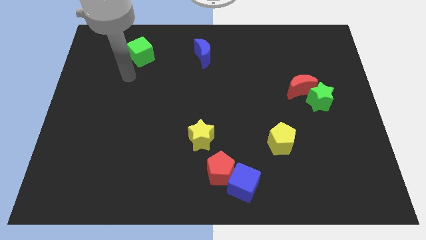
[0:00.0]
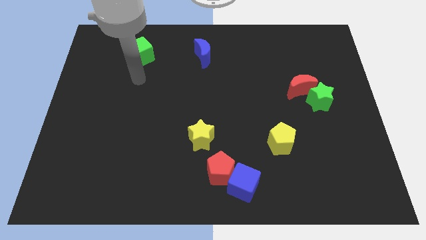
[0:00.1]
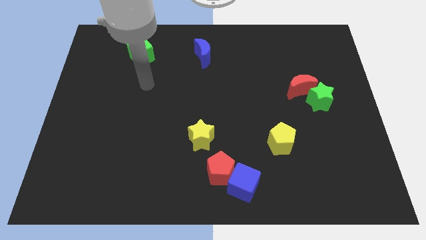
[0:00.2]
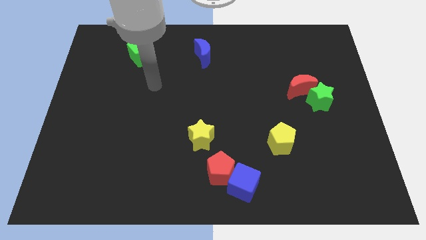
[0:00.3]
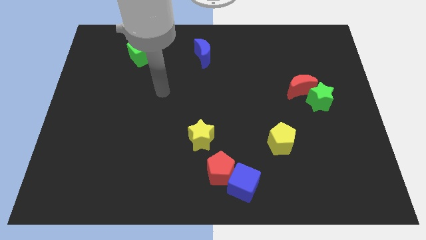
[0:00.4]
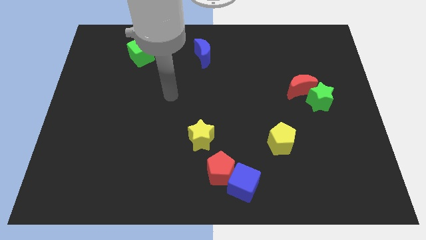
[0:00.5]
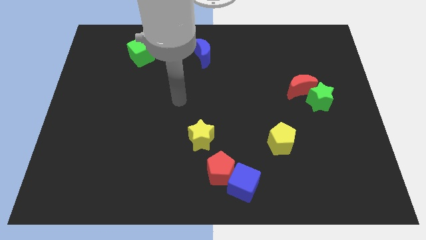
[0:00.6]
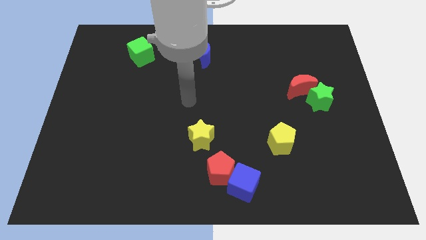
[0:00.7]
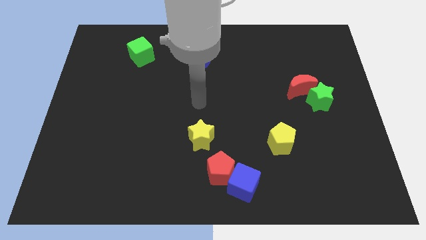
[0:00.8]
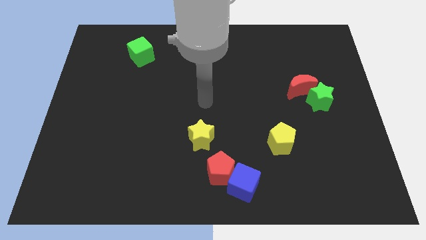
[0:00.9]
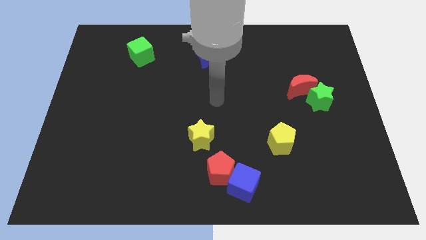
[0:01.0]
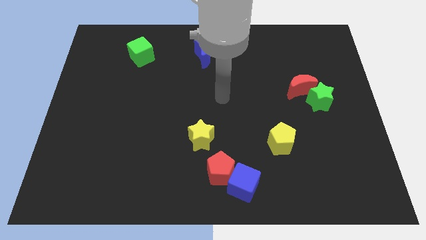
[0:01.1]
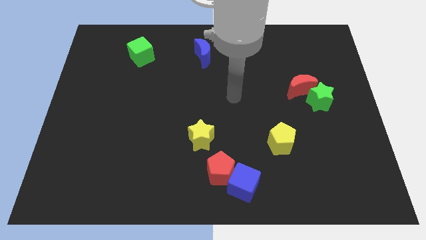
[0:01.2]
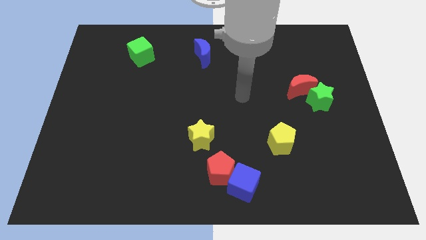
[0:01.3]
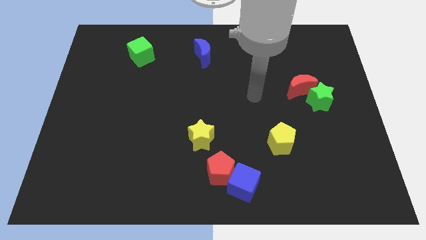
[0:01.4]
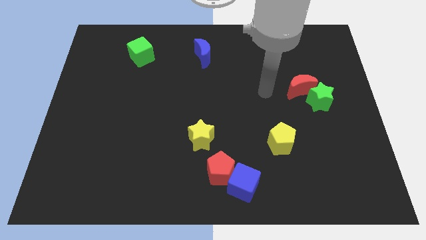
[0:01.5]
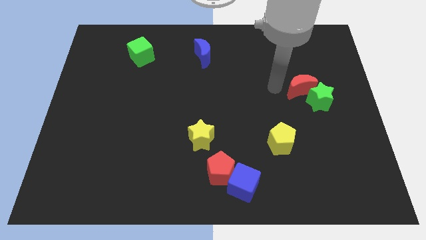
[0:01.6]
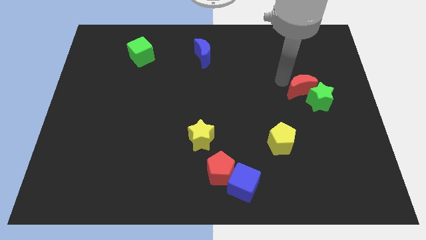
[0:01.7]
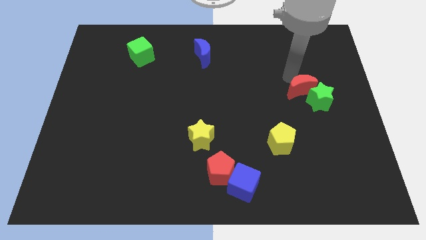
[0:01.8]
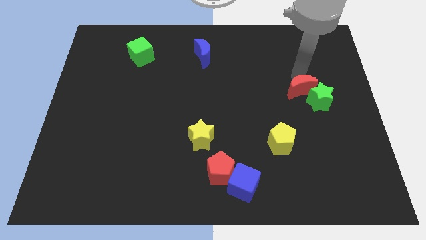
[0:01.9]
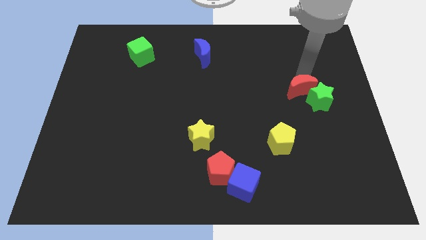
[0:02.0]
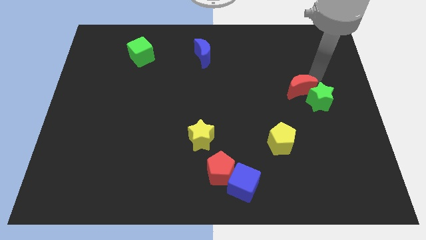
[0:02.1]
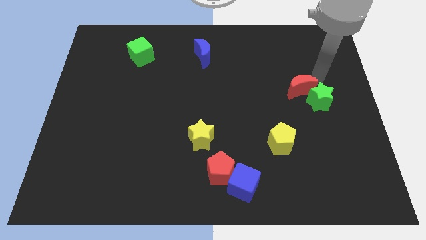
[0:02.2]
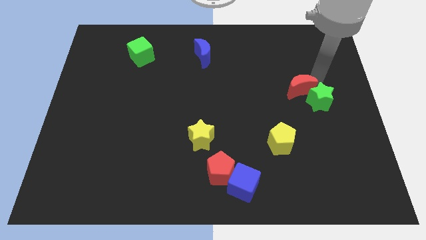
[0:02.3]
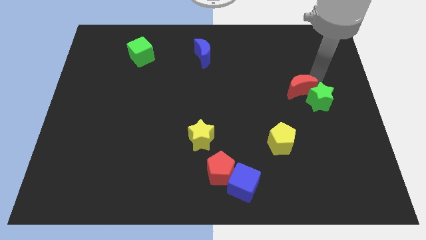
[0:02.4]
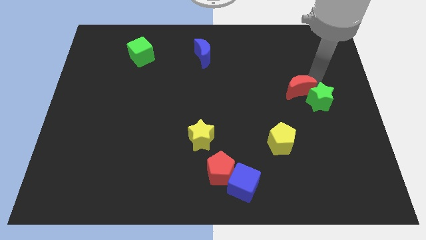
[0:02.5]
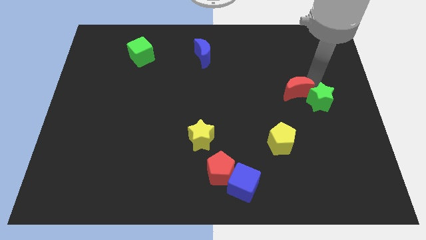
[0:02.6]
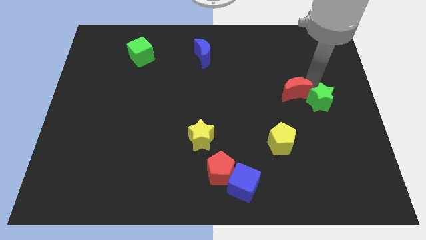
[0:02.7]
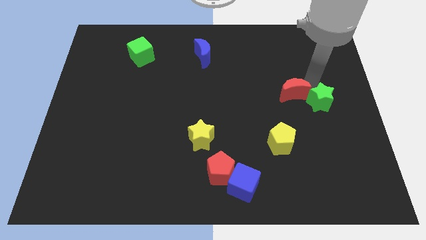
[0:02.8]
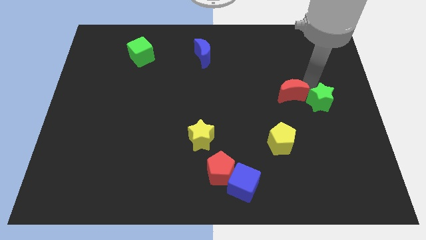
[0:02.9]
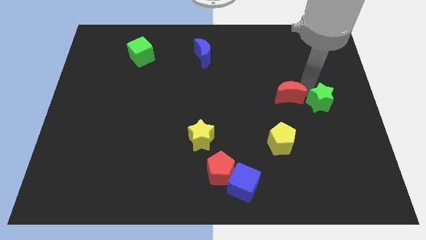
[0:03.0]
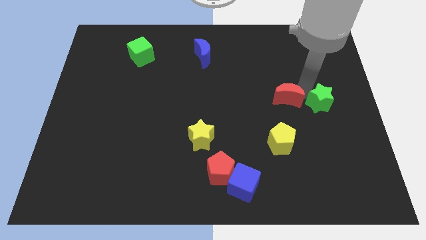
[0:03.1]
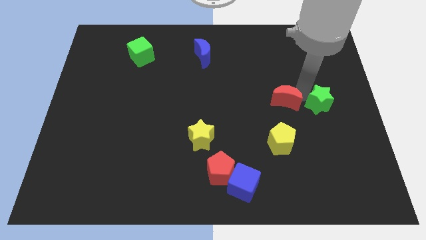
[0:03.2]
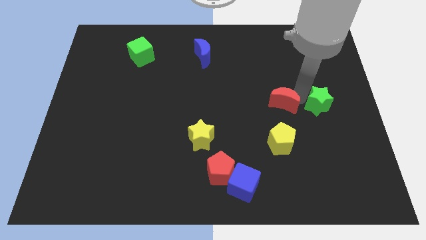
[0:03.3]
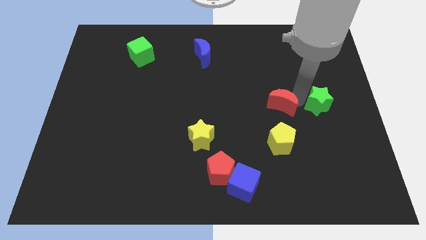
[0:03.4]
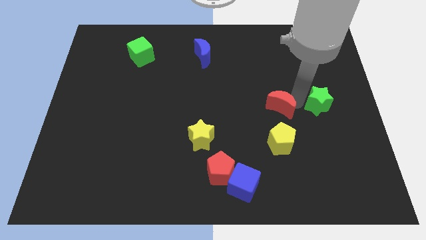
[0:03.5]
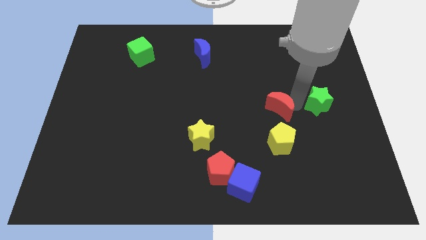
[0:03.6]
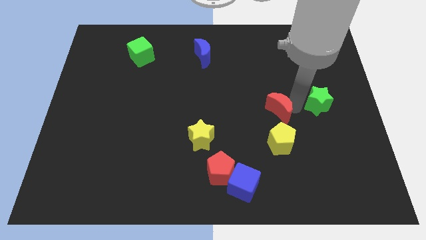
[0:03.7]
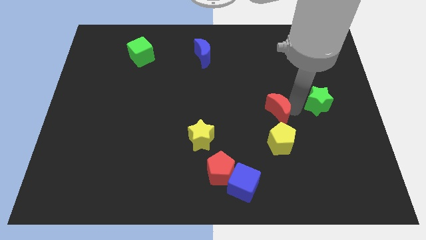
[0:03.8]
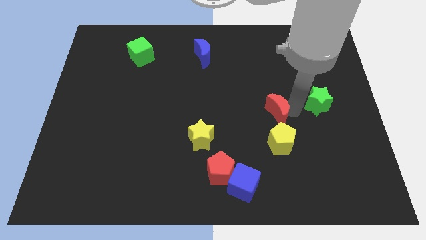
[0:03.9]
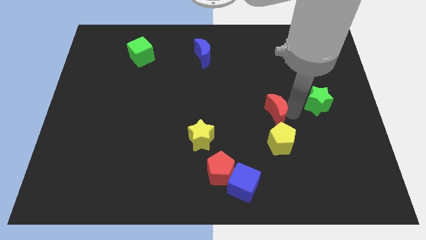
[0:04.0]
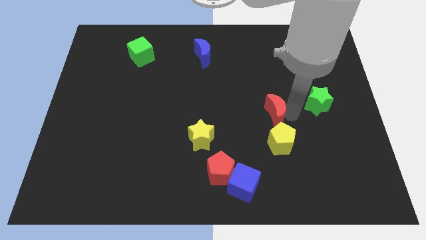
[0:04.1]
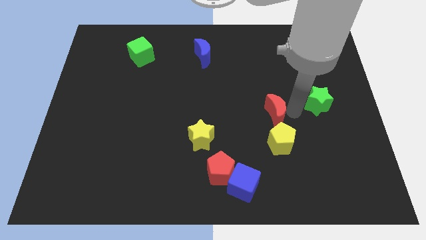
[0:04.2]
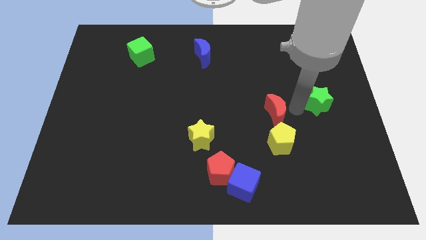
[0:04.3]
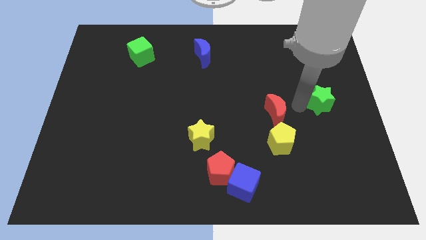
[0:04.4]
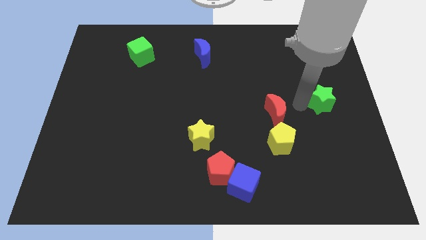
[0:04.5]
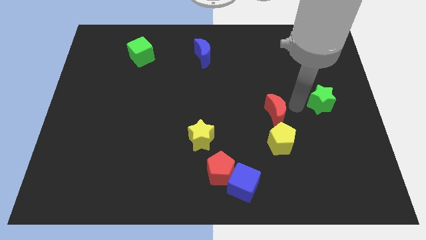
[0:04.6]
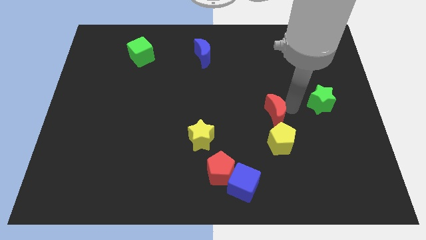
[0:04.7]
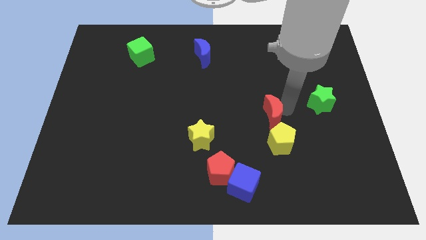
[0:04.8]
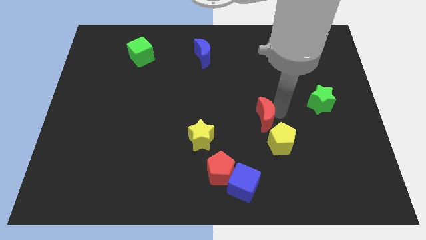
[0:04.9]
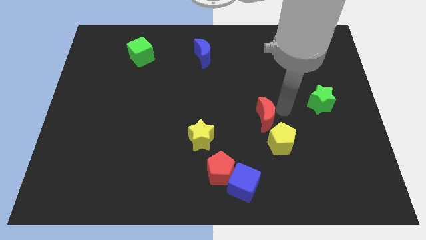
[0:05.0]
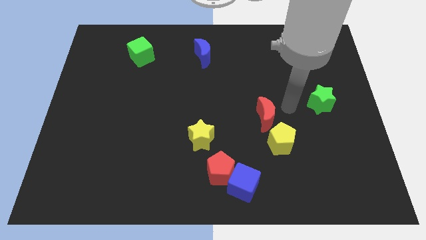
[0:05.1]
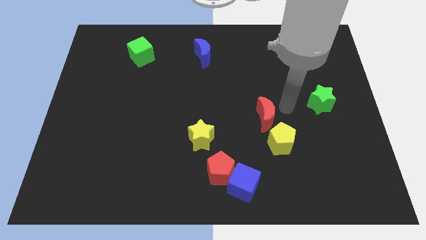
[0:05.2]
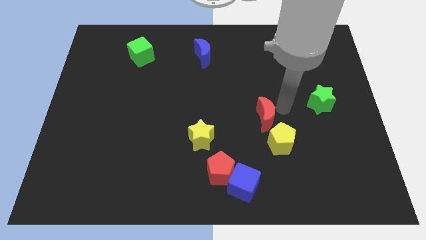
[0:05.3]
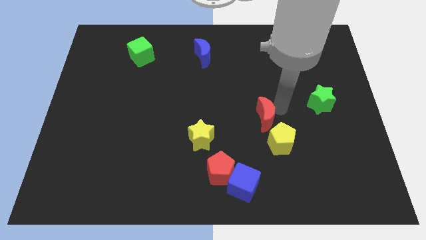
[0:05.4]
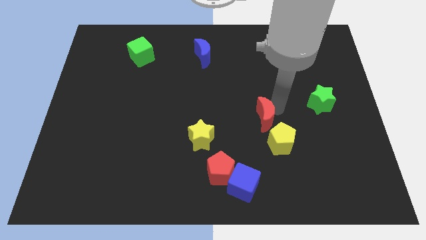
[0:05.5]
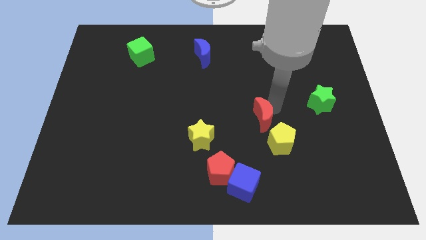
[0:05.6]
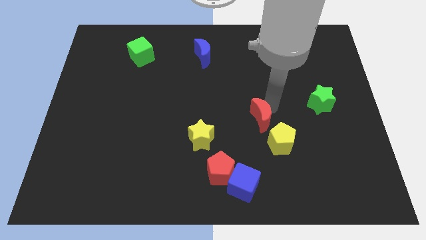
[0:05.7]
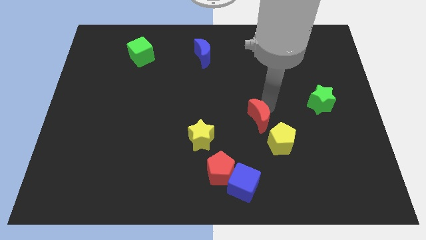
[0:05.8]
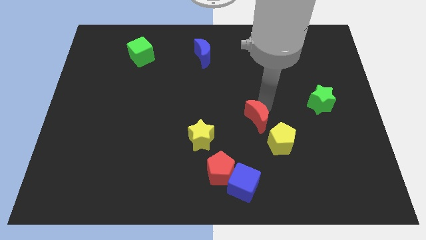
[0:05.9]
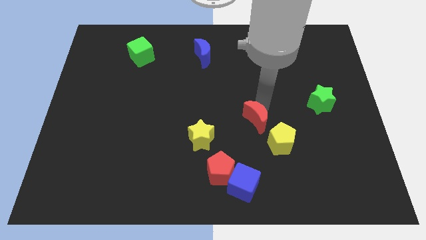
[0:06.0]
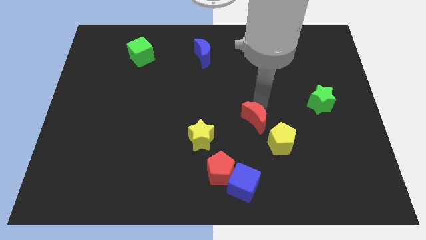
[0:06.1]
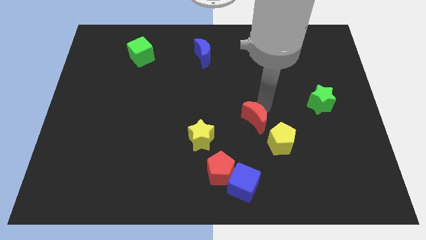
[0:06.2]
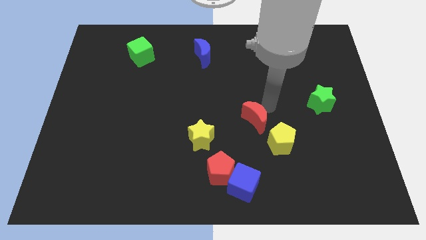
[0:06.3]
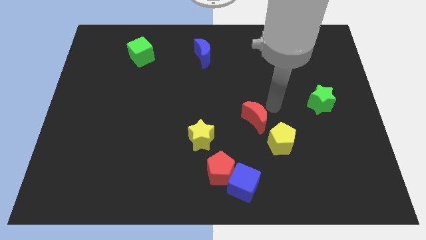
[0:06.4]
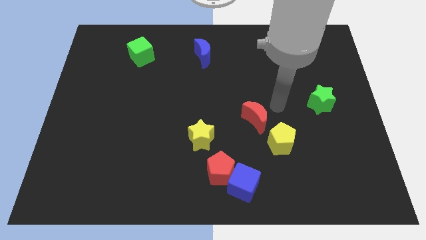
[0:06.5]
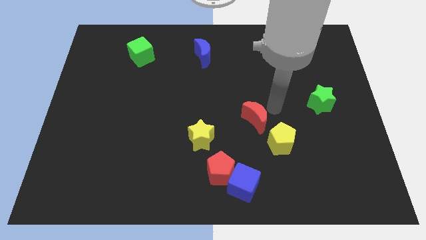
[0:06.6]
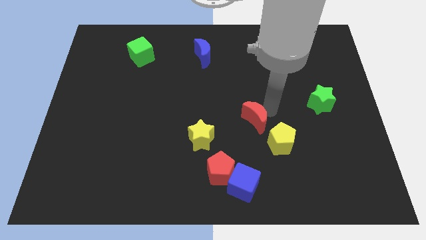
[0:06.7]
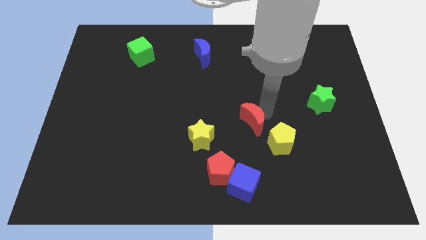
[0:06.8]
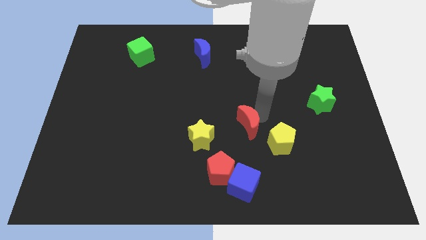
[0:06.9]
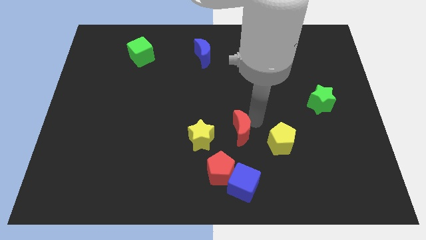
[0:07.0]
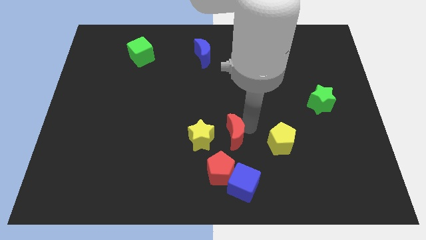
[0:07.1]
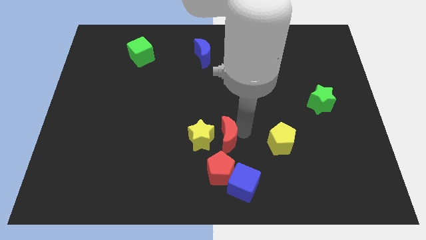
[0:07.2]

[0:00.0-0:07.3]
move the red moon towards the yellow star
